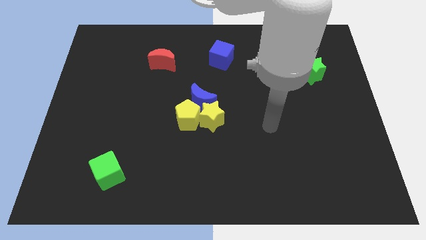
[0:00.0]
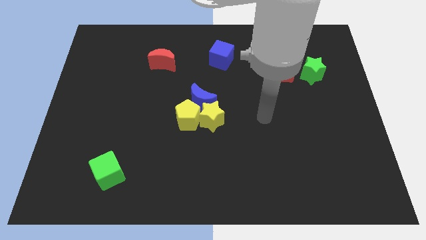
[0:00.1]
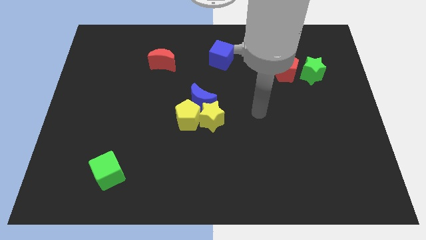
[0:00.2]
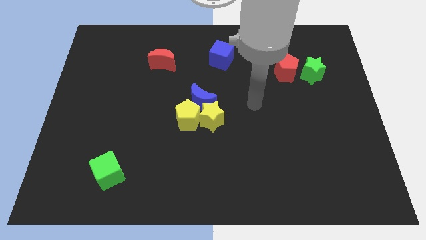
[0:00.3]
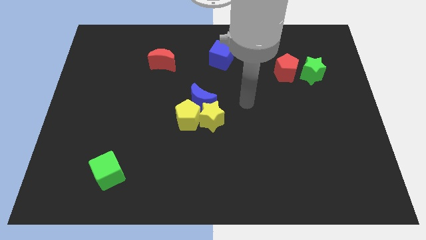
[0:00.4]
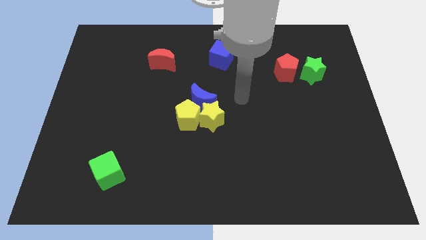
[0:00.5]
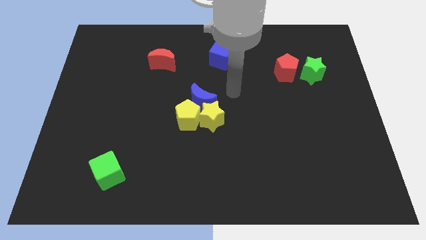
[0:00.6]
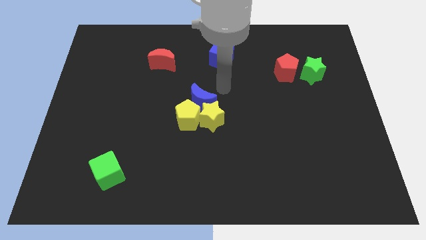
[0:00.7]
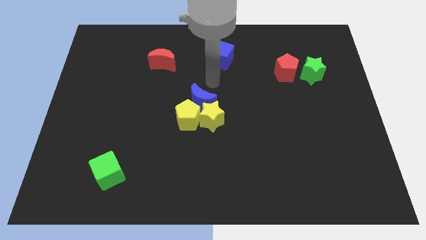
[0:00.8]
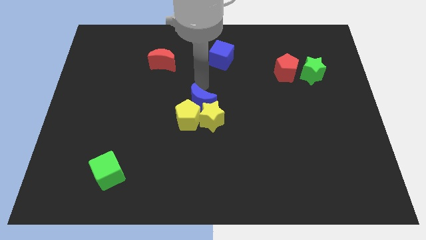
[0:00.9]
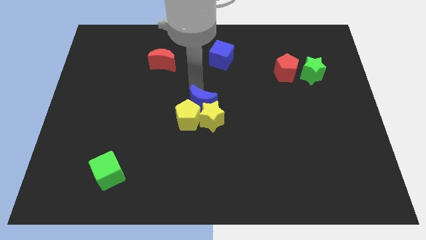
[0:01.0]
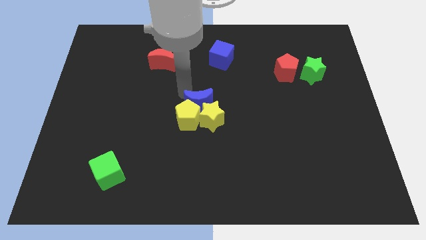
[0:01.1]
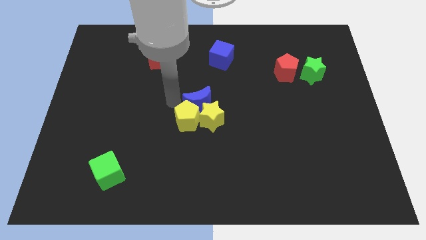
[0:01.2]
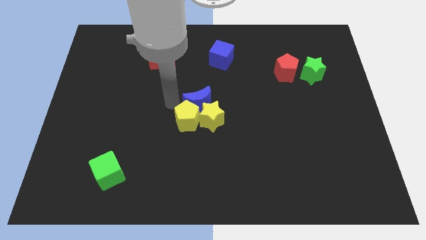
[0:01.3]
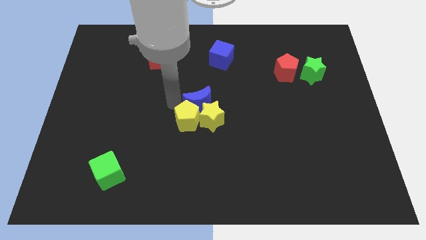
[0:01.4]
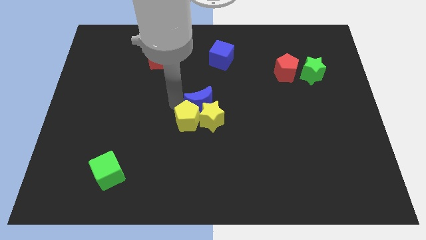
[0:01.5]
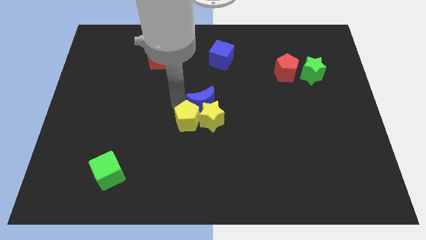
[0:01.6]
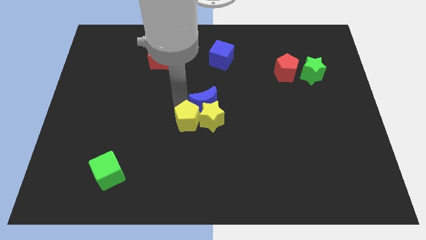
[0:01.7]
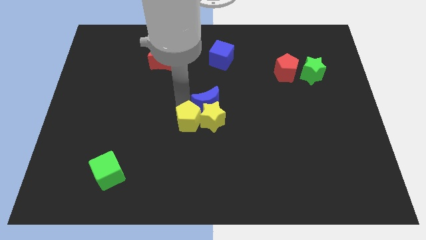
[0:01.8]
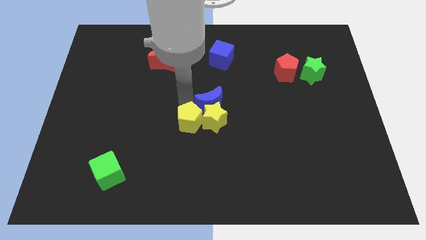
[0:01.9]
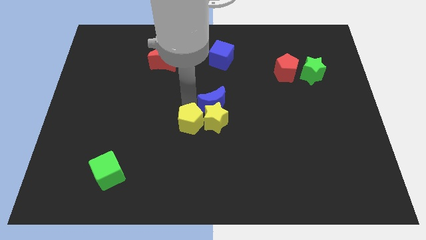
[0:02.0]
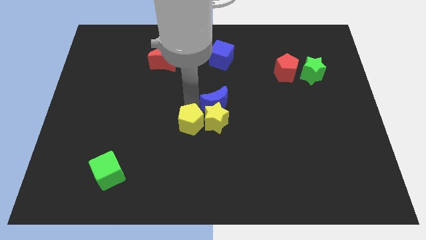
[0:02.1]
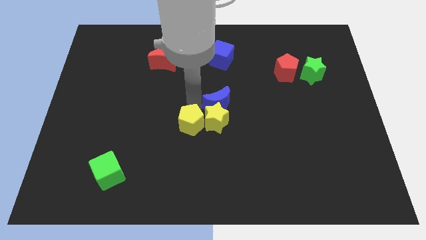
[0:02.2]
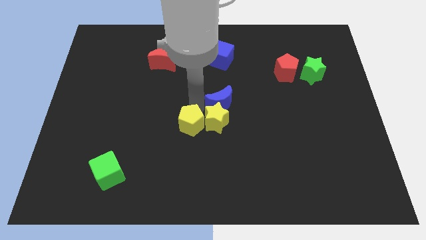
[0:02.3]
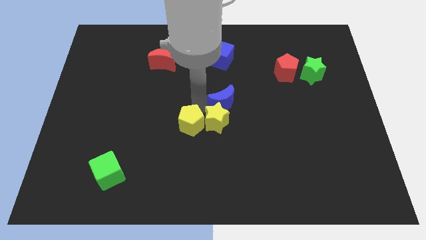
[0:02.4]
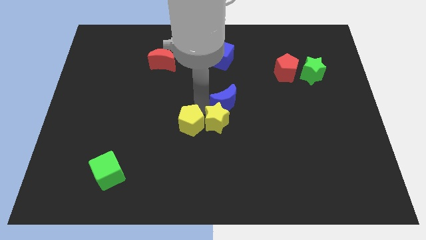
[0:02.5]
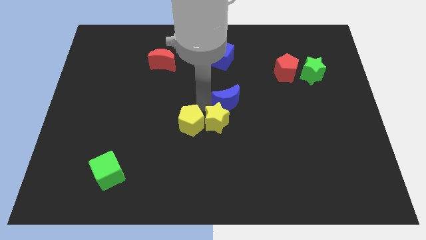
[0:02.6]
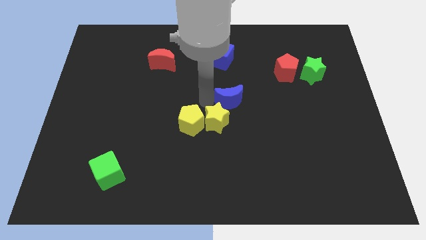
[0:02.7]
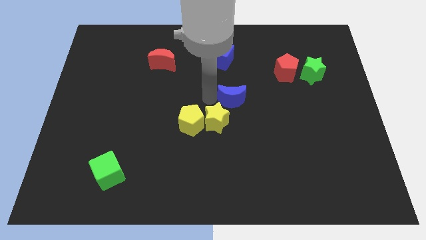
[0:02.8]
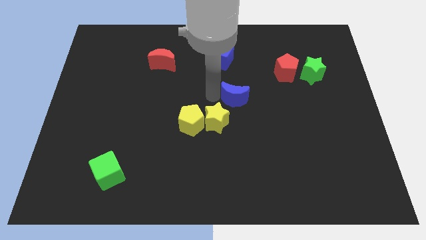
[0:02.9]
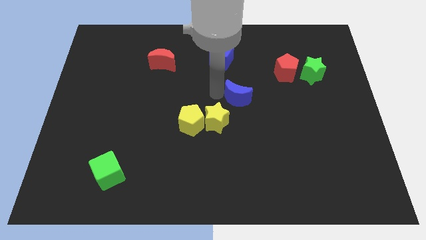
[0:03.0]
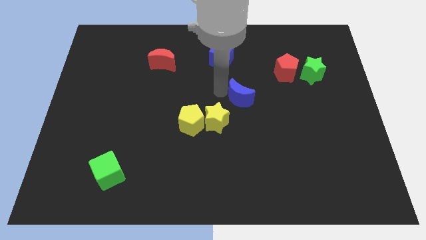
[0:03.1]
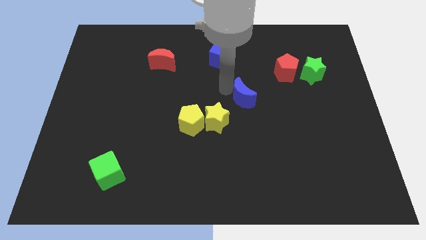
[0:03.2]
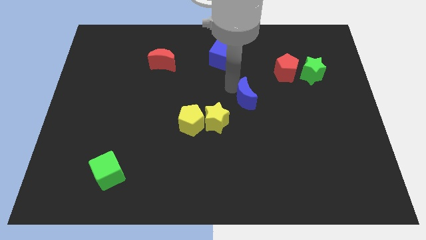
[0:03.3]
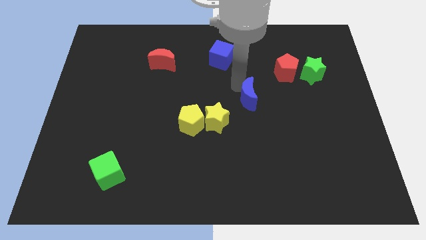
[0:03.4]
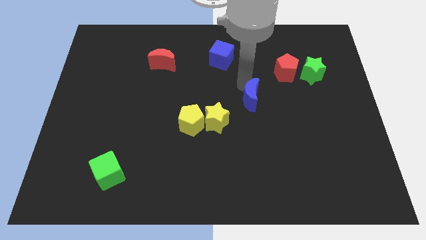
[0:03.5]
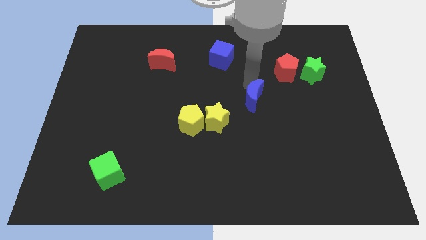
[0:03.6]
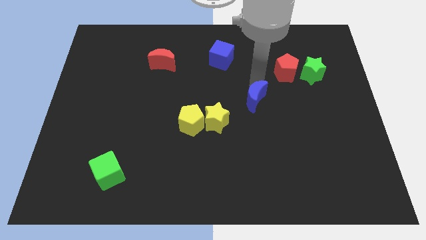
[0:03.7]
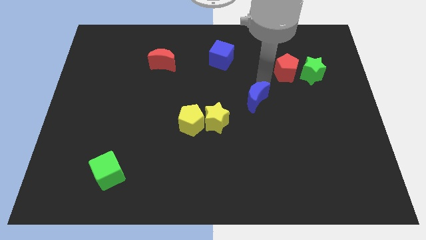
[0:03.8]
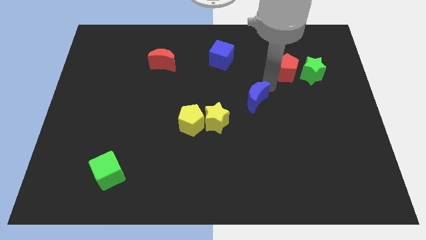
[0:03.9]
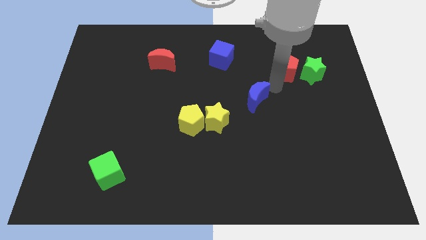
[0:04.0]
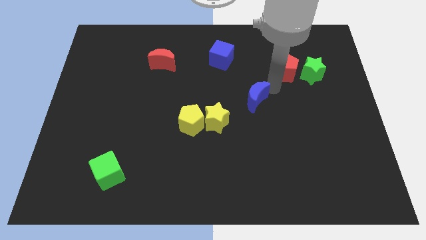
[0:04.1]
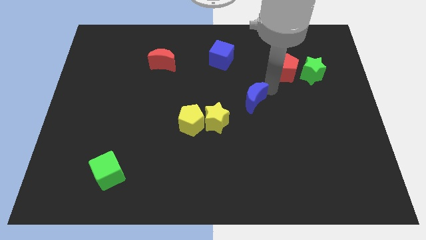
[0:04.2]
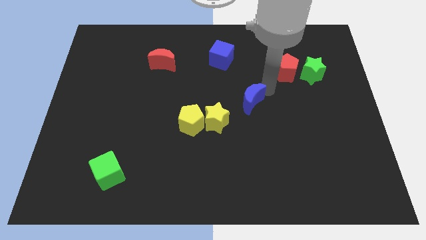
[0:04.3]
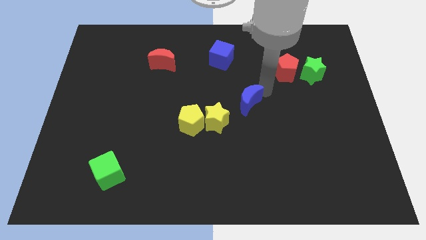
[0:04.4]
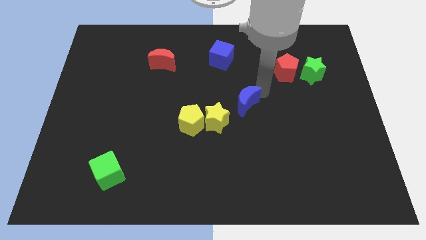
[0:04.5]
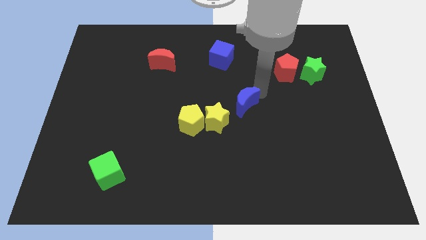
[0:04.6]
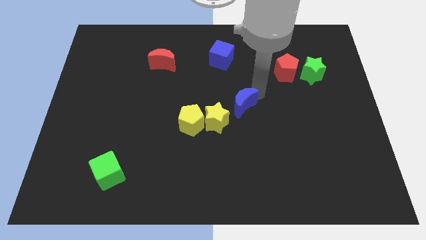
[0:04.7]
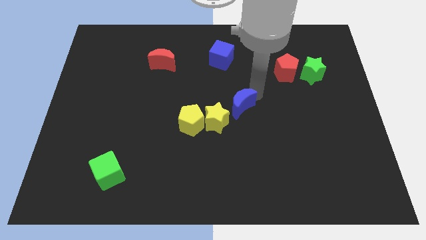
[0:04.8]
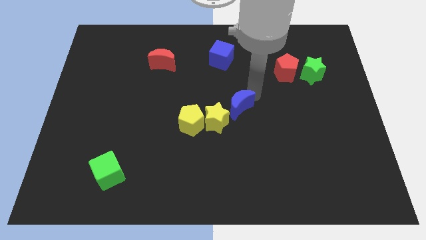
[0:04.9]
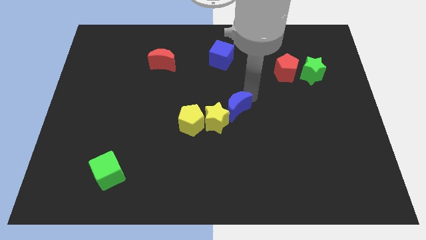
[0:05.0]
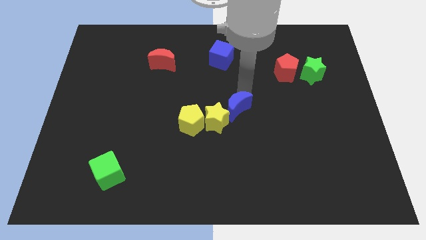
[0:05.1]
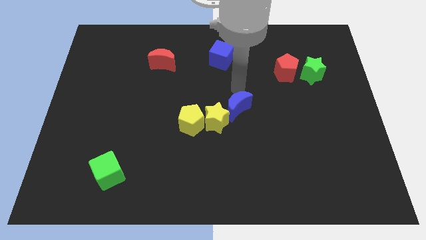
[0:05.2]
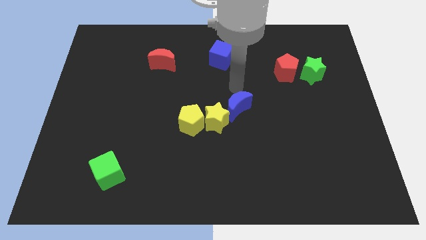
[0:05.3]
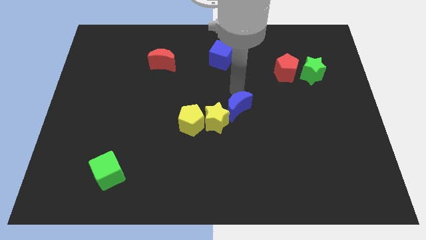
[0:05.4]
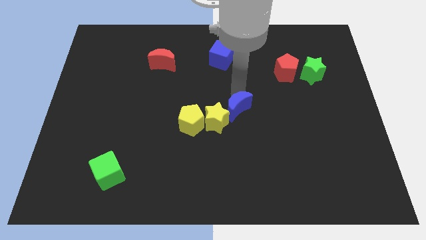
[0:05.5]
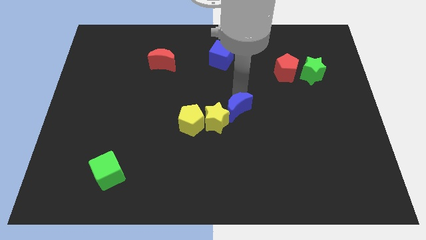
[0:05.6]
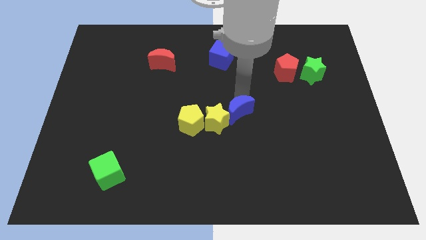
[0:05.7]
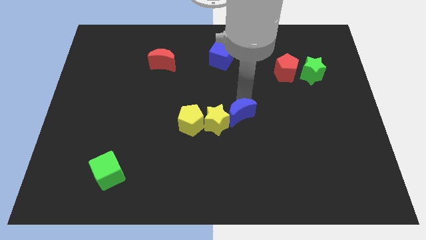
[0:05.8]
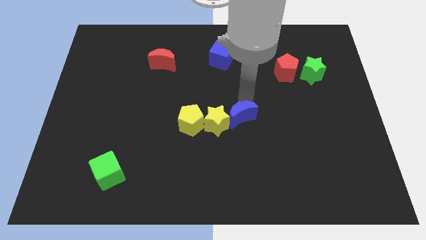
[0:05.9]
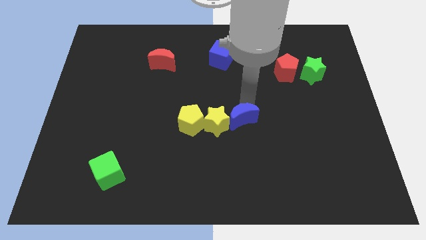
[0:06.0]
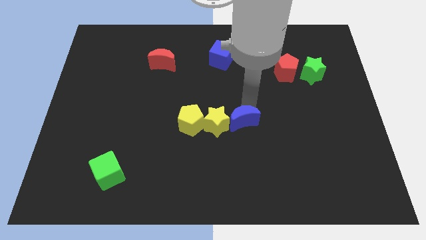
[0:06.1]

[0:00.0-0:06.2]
push the blue moon to the bottom right of the yellow star

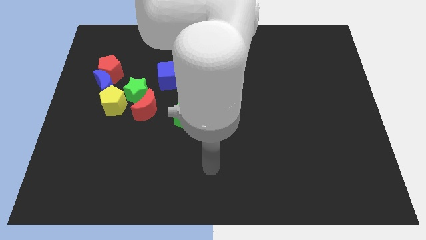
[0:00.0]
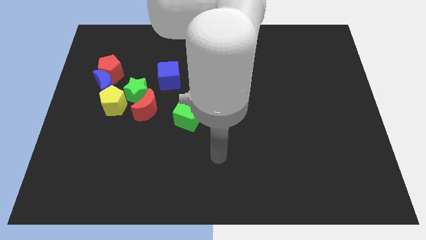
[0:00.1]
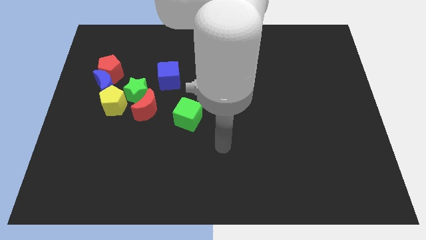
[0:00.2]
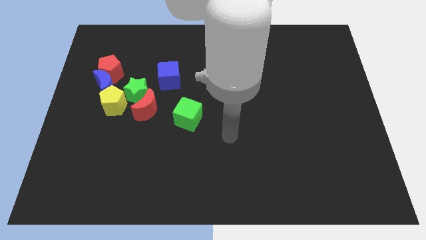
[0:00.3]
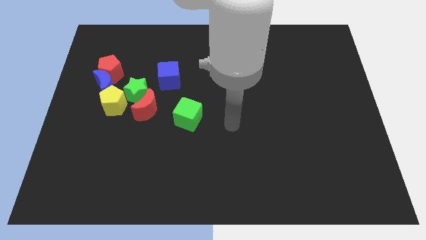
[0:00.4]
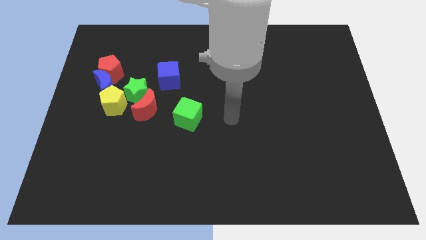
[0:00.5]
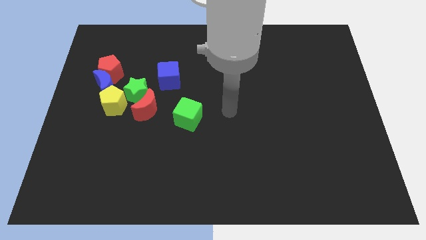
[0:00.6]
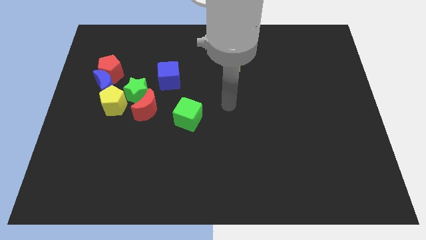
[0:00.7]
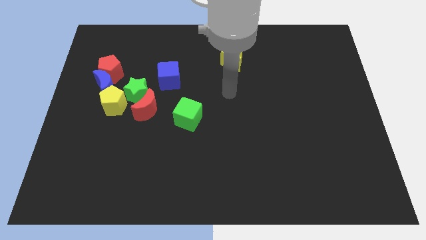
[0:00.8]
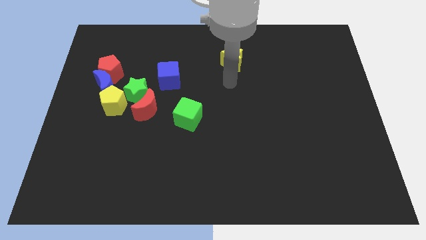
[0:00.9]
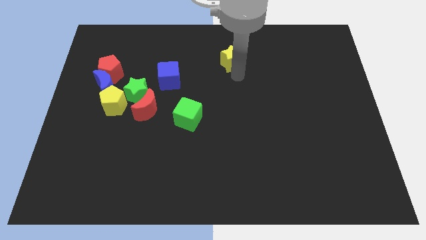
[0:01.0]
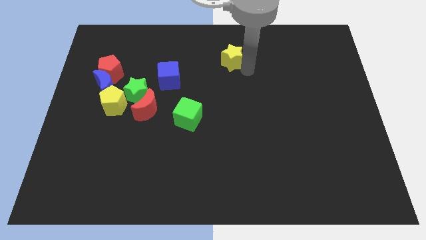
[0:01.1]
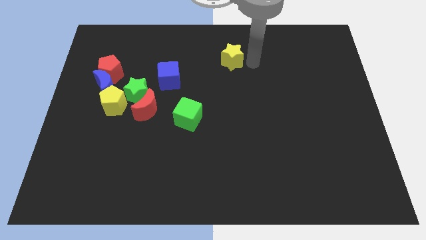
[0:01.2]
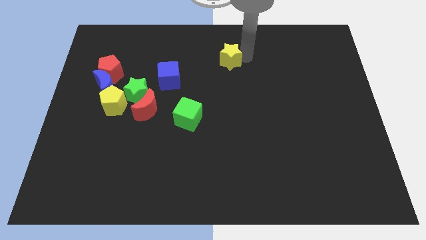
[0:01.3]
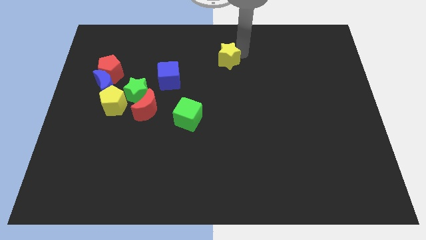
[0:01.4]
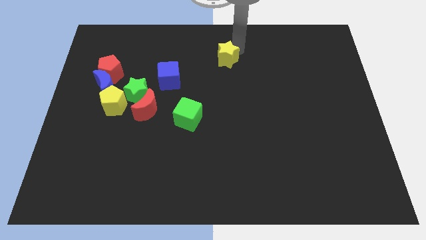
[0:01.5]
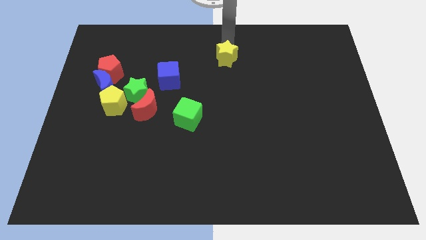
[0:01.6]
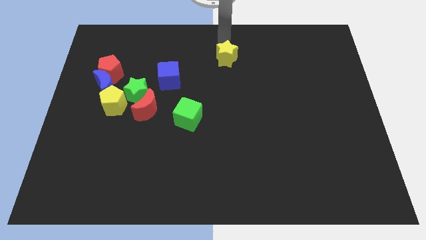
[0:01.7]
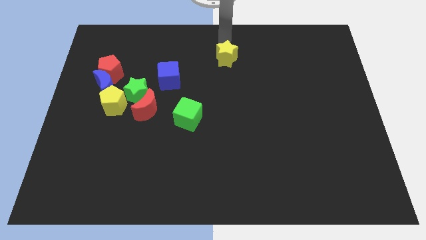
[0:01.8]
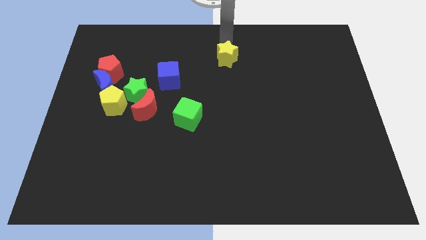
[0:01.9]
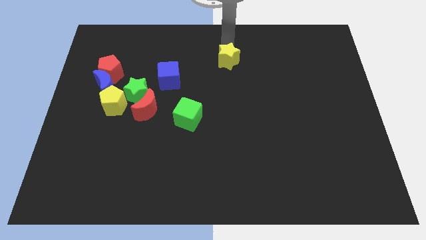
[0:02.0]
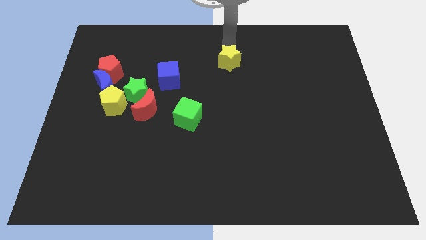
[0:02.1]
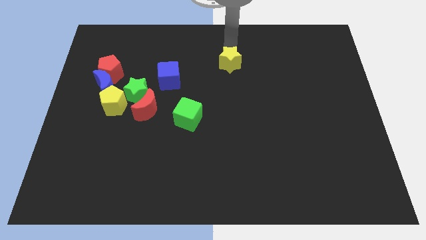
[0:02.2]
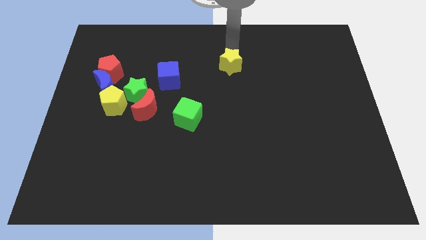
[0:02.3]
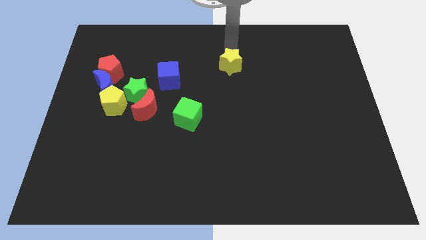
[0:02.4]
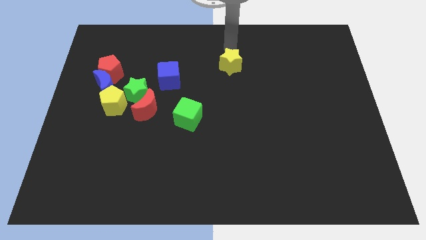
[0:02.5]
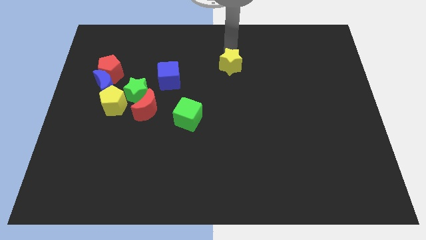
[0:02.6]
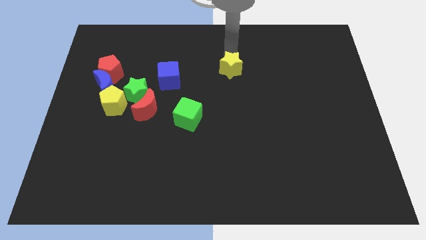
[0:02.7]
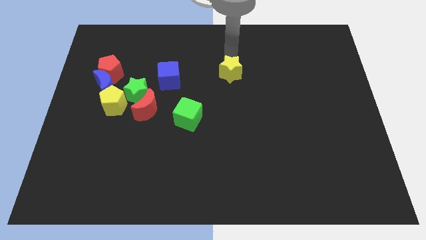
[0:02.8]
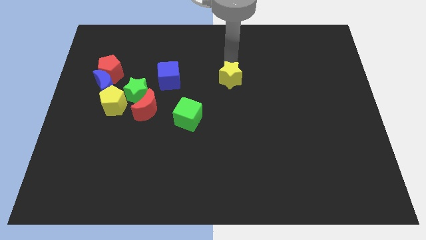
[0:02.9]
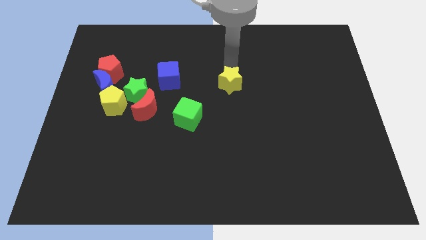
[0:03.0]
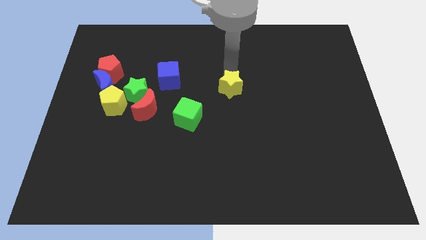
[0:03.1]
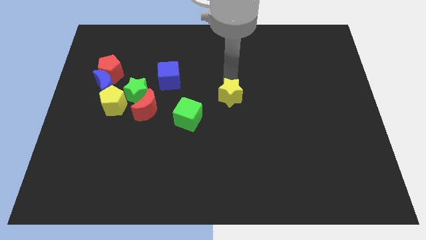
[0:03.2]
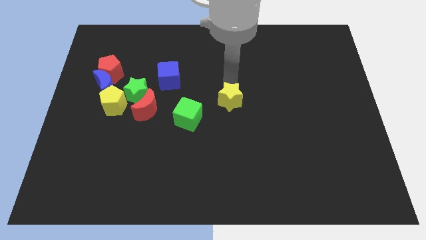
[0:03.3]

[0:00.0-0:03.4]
push the yellow star to the right side of the green cube
